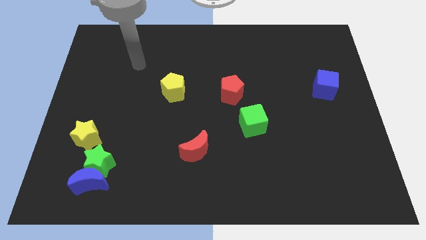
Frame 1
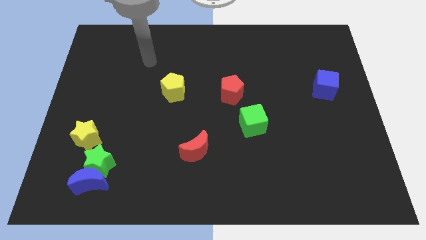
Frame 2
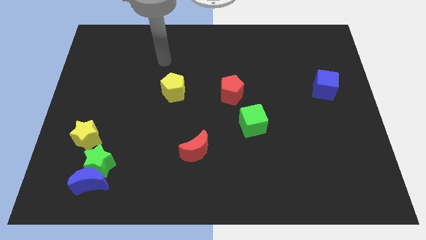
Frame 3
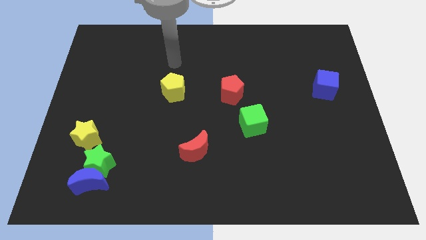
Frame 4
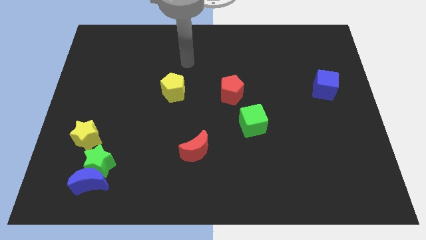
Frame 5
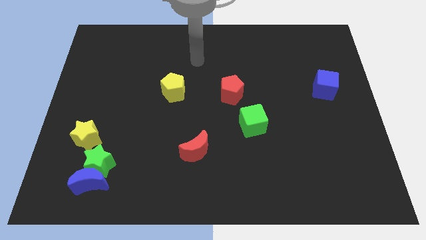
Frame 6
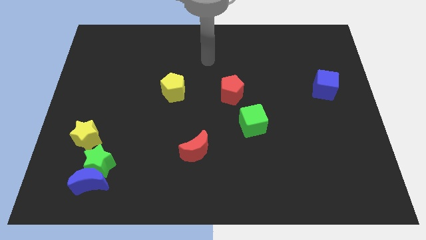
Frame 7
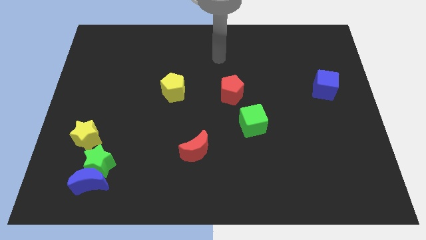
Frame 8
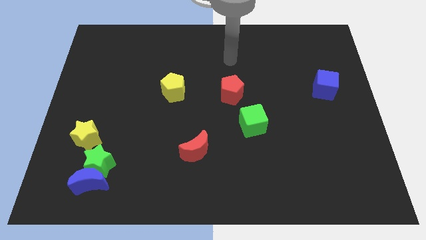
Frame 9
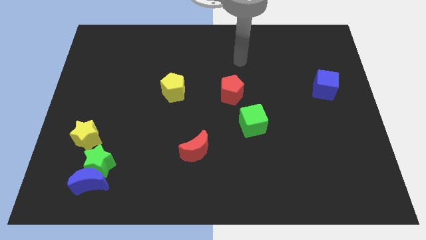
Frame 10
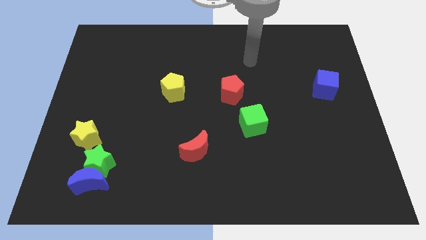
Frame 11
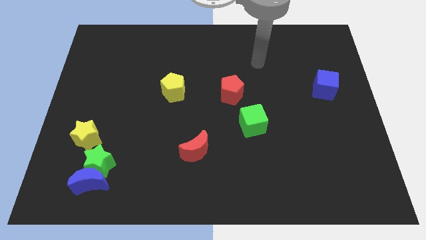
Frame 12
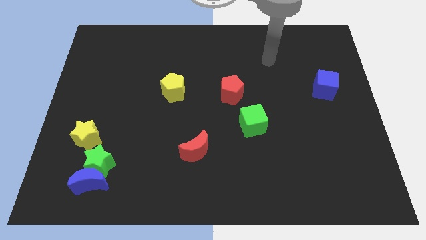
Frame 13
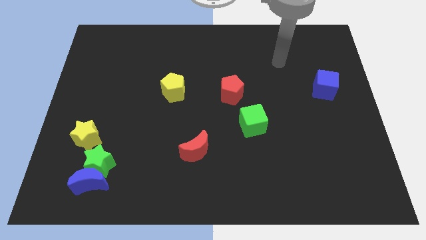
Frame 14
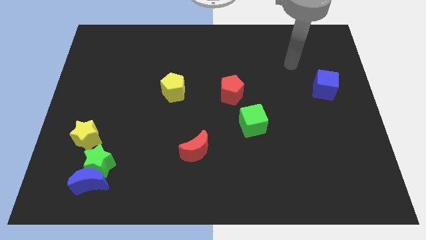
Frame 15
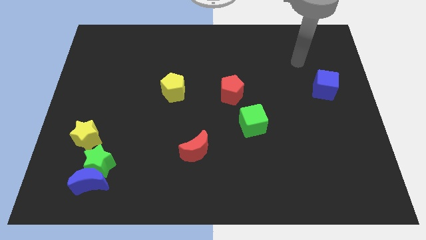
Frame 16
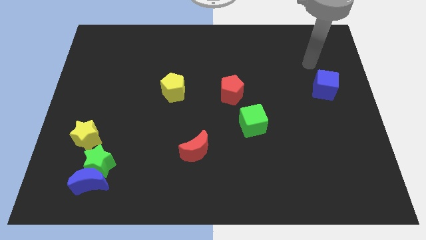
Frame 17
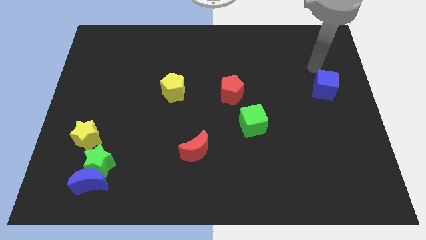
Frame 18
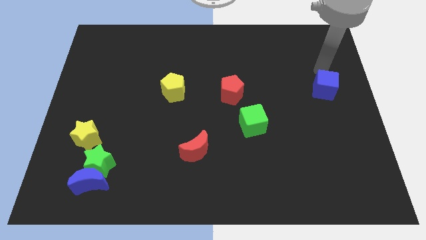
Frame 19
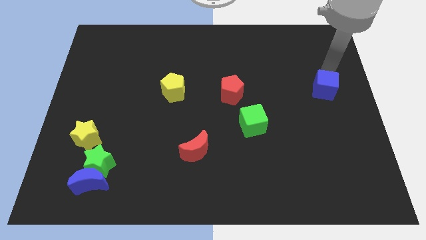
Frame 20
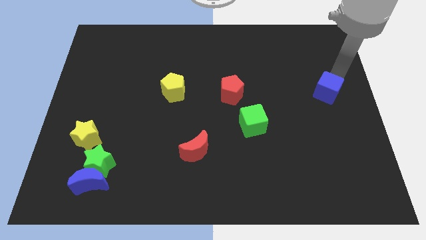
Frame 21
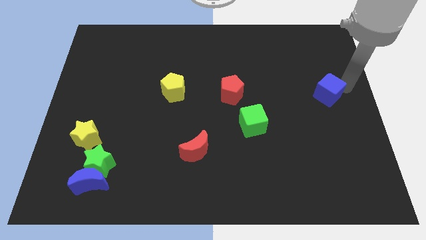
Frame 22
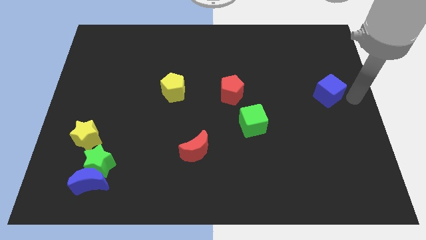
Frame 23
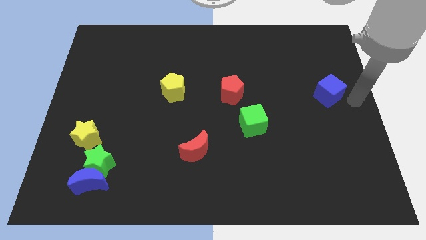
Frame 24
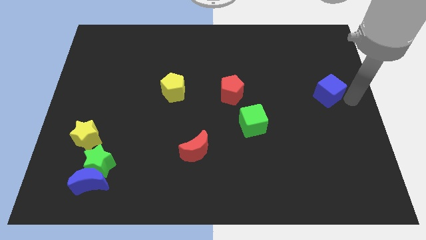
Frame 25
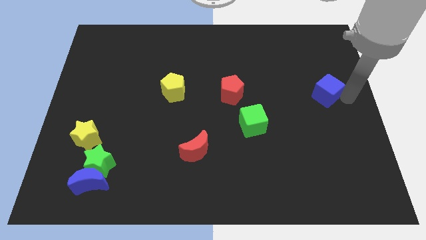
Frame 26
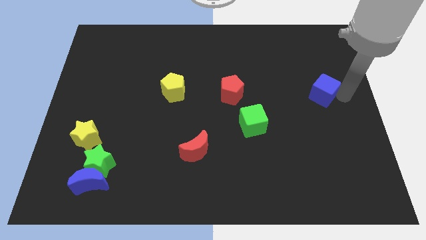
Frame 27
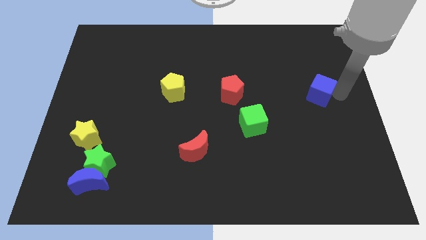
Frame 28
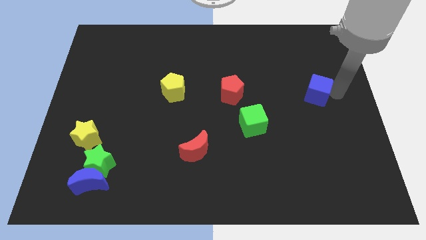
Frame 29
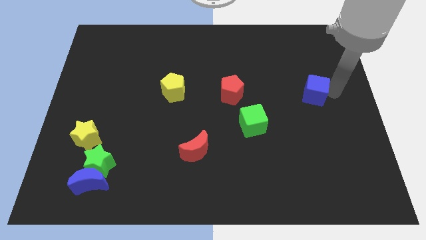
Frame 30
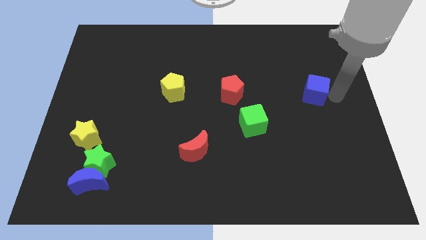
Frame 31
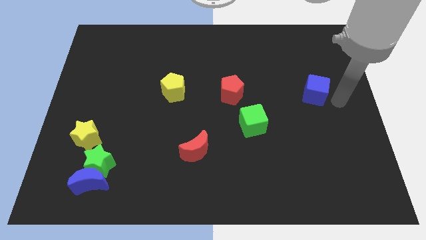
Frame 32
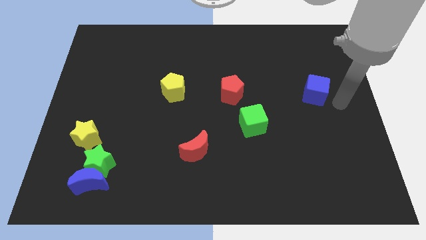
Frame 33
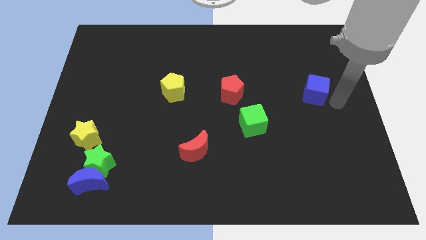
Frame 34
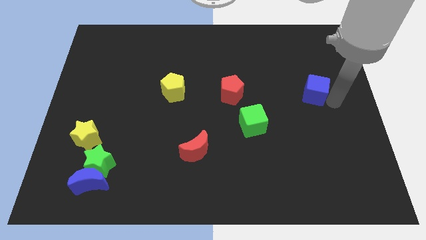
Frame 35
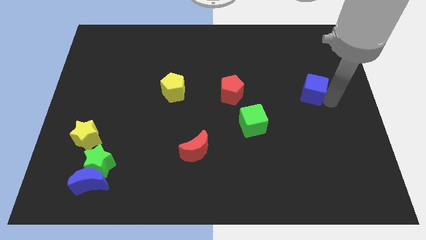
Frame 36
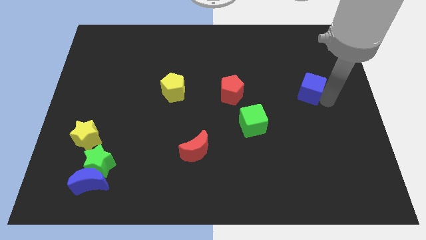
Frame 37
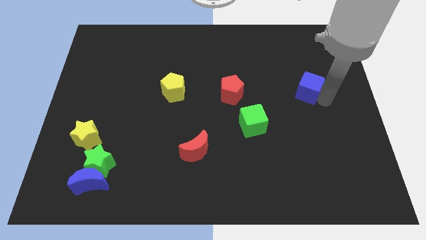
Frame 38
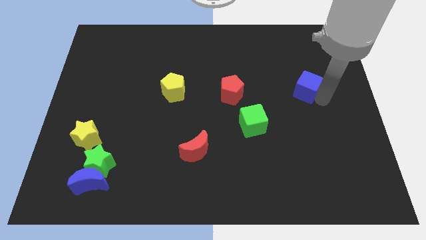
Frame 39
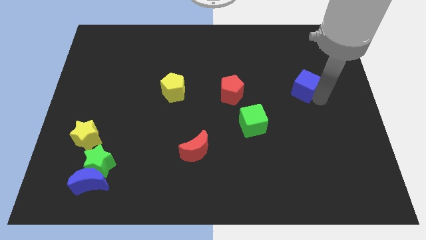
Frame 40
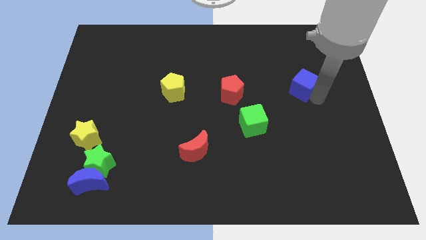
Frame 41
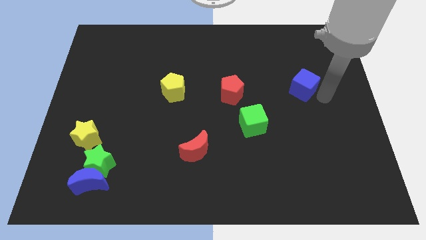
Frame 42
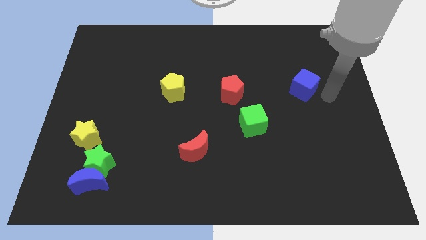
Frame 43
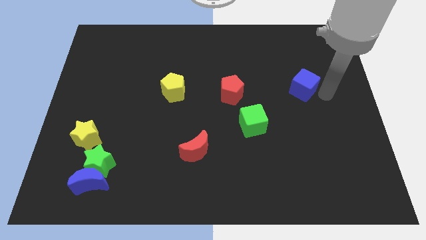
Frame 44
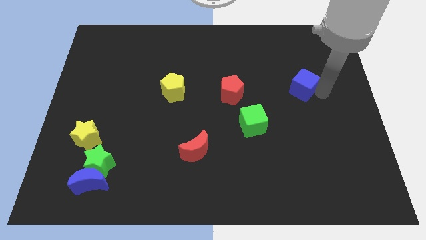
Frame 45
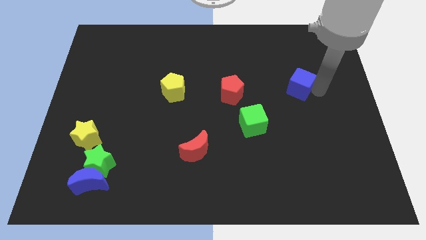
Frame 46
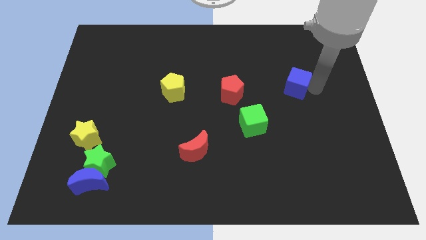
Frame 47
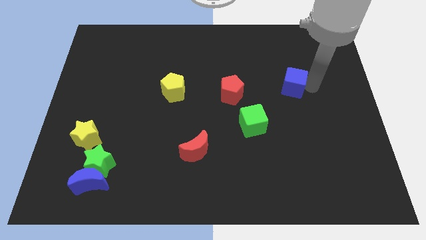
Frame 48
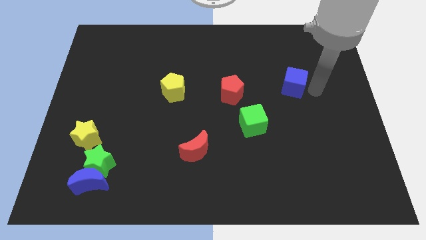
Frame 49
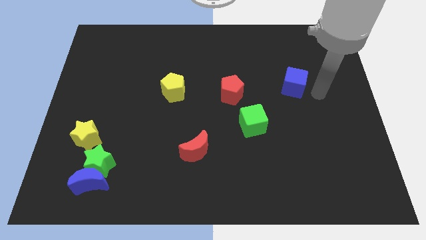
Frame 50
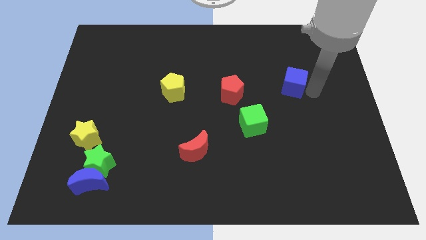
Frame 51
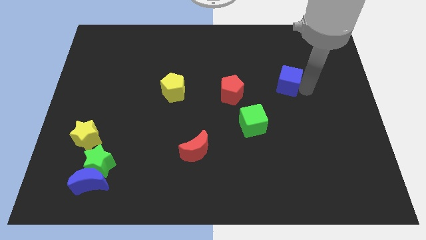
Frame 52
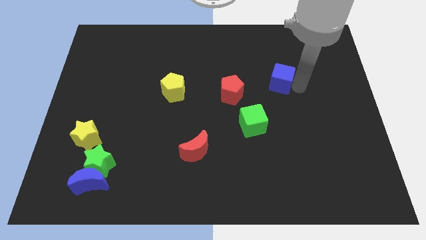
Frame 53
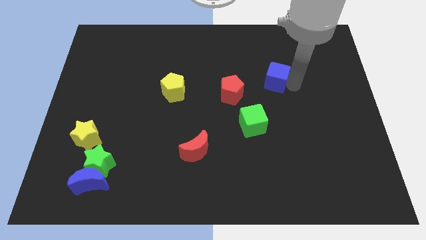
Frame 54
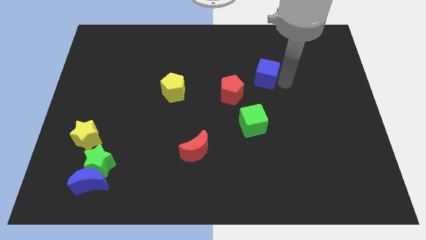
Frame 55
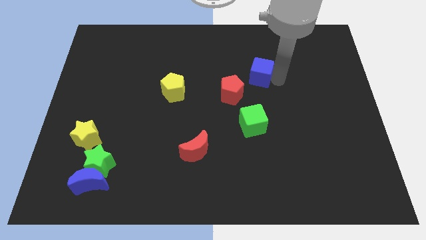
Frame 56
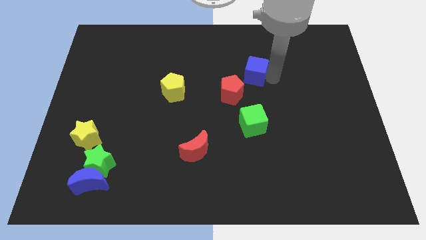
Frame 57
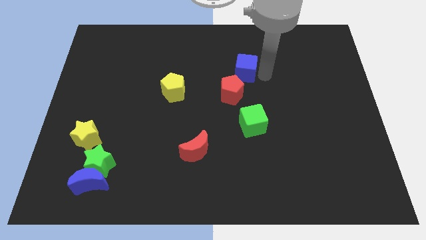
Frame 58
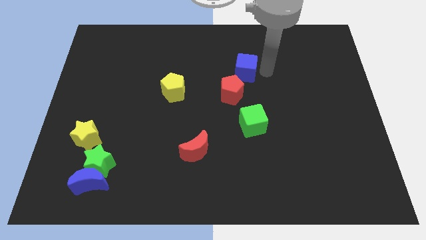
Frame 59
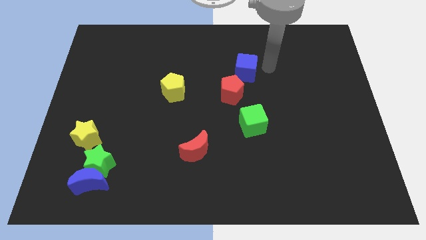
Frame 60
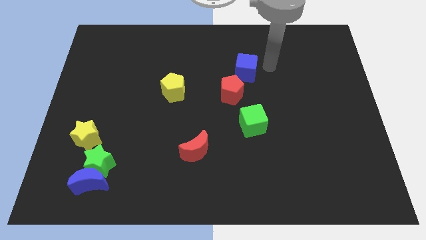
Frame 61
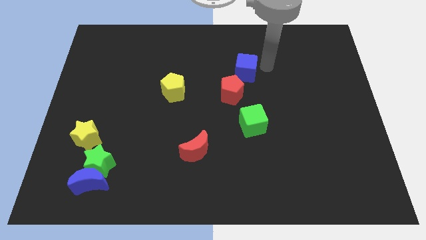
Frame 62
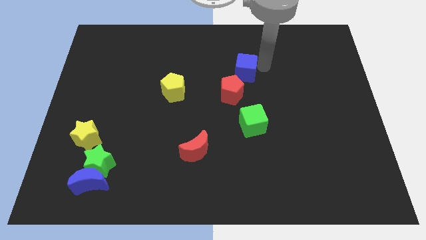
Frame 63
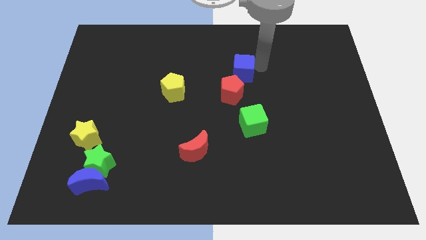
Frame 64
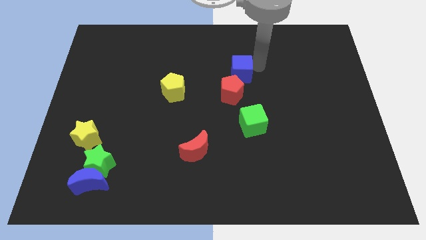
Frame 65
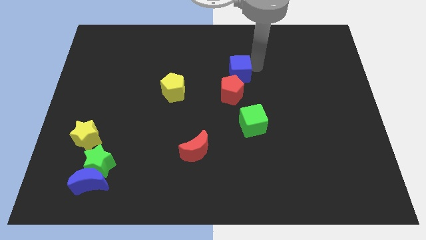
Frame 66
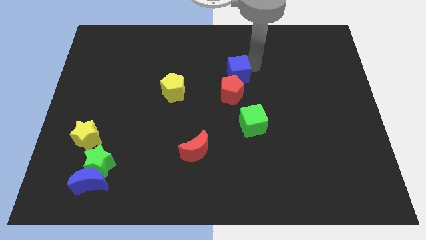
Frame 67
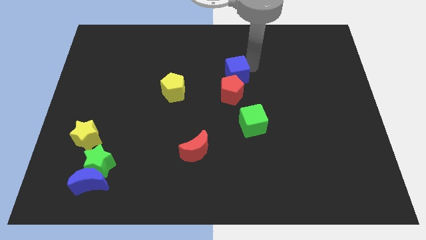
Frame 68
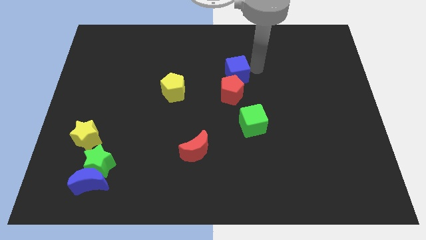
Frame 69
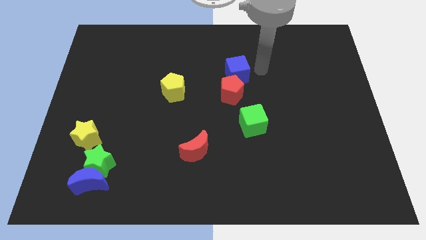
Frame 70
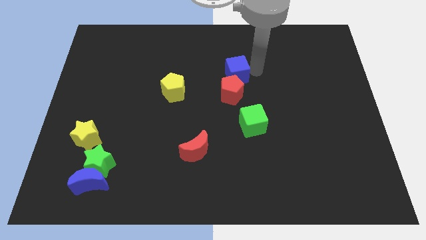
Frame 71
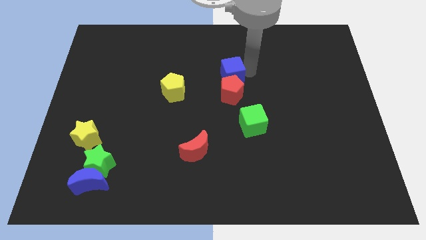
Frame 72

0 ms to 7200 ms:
put the blue cube to the top left of the red pentagon

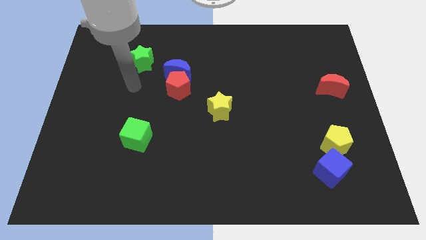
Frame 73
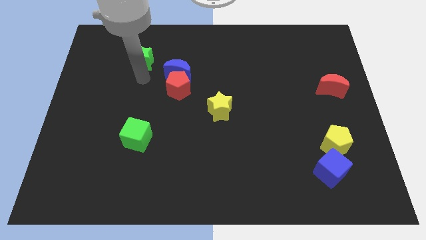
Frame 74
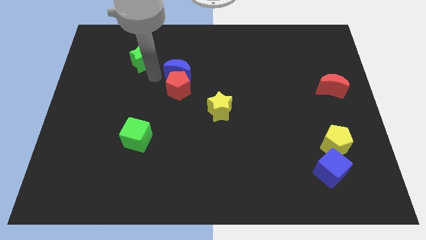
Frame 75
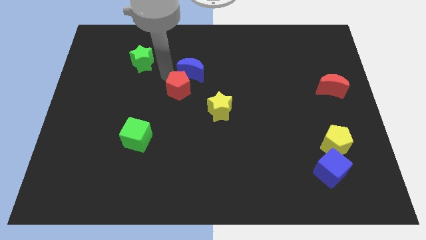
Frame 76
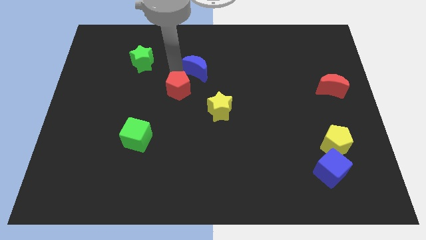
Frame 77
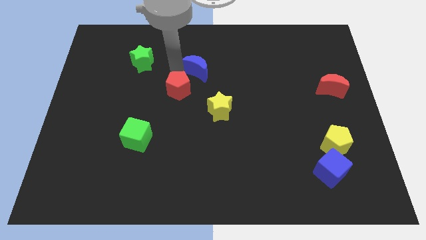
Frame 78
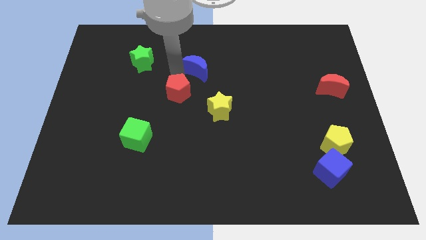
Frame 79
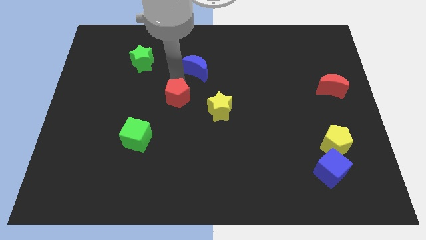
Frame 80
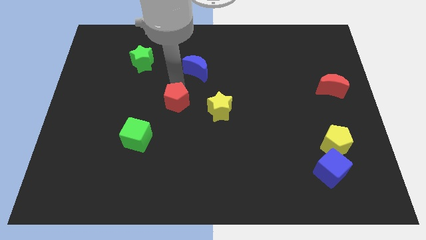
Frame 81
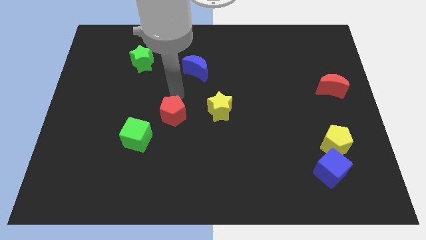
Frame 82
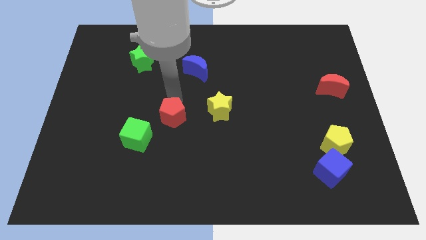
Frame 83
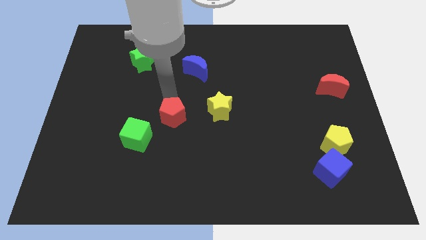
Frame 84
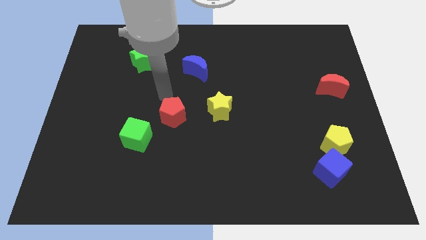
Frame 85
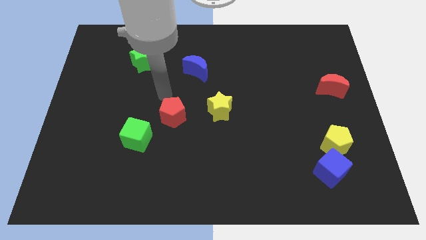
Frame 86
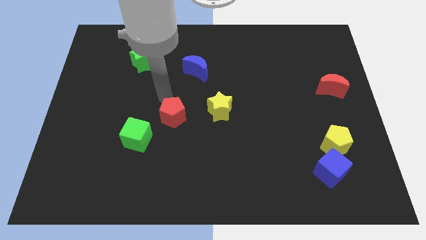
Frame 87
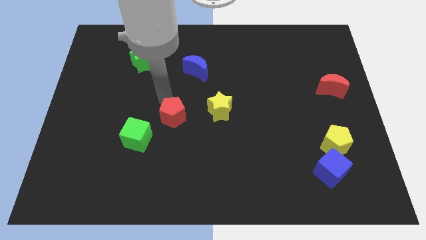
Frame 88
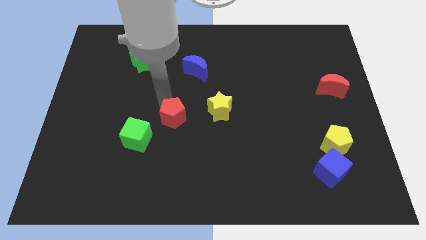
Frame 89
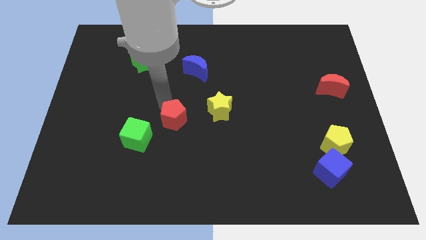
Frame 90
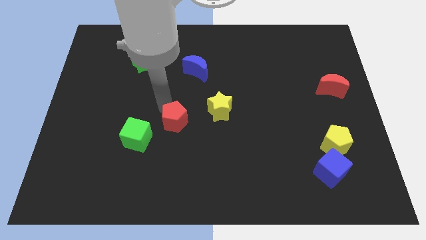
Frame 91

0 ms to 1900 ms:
push the red pentagon to the right side of the green cube
